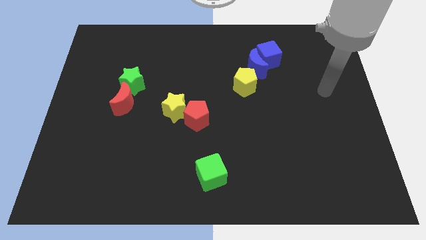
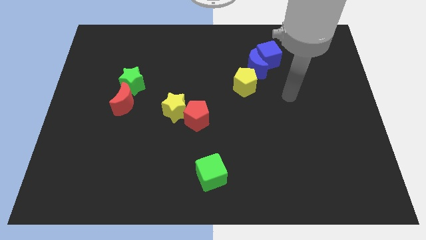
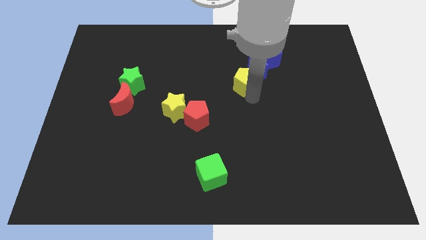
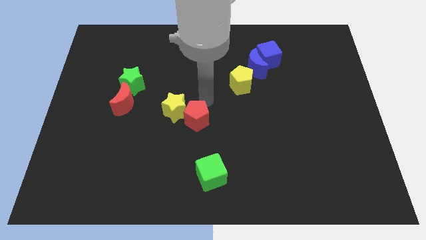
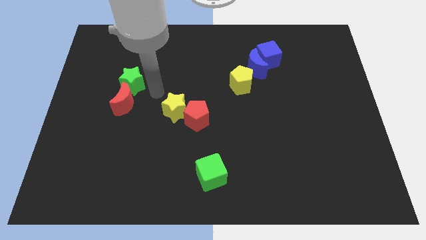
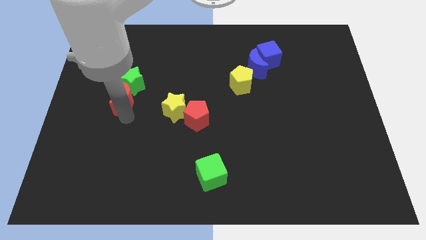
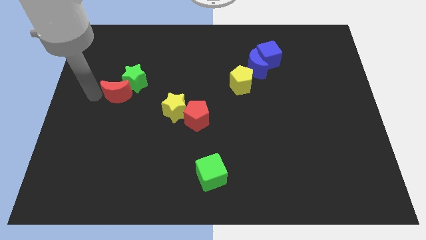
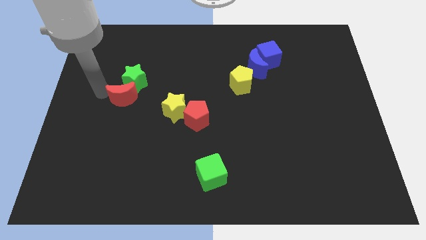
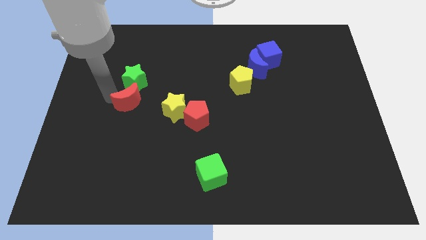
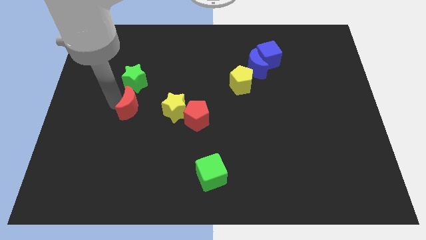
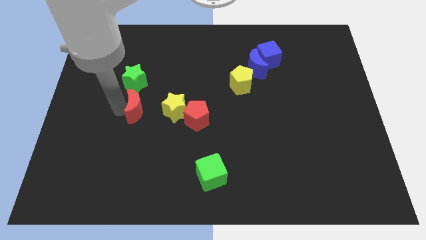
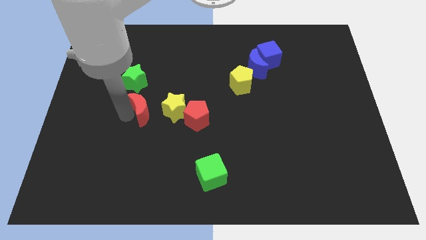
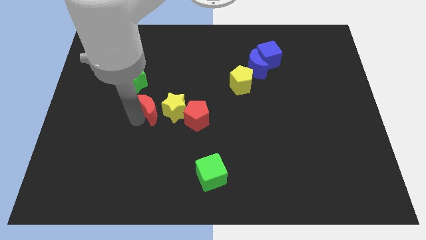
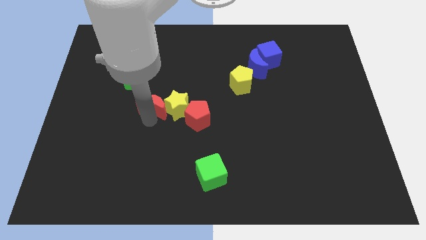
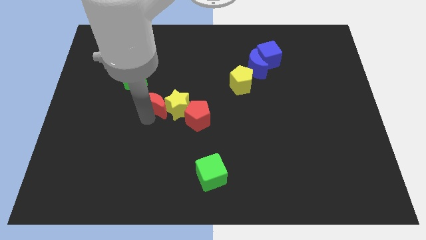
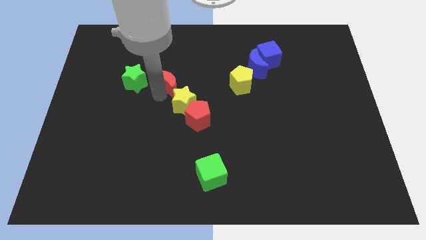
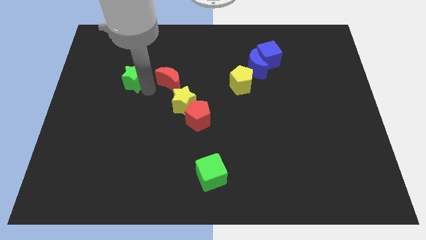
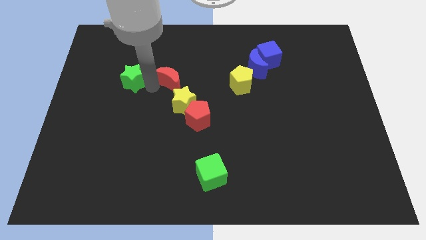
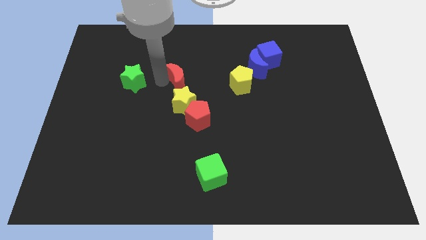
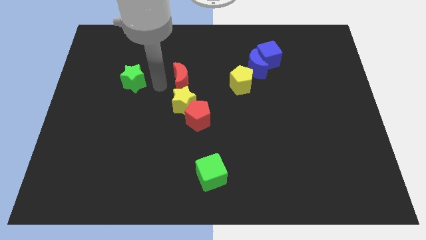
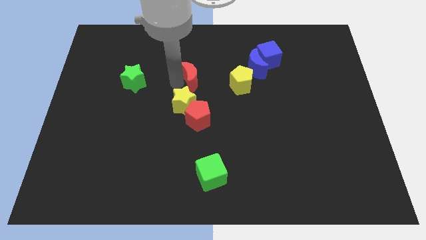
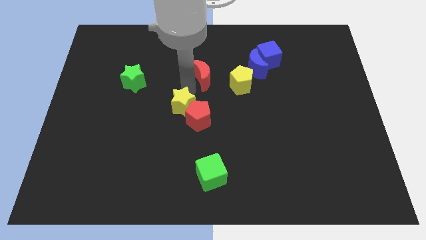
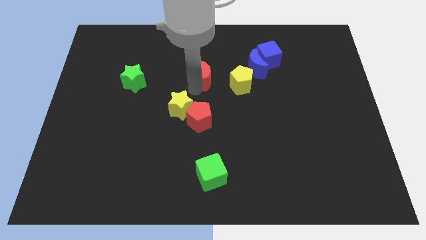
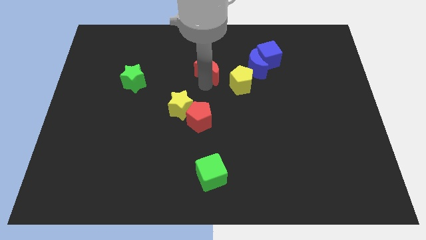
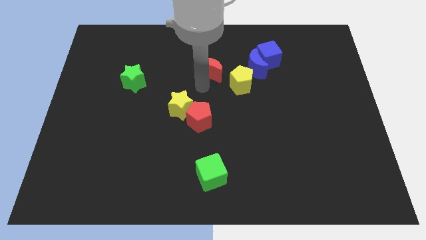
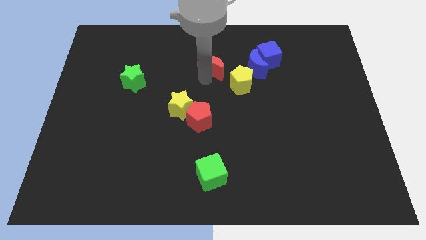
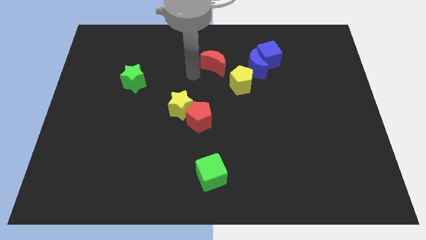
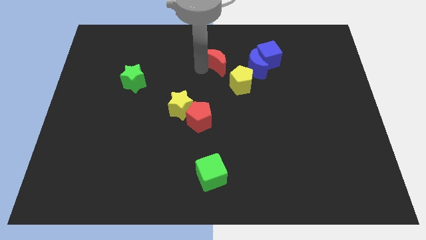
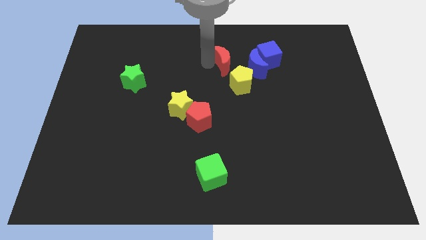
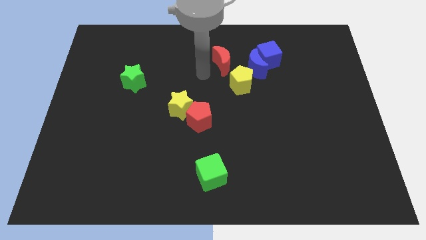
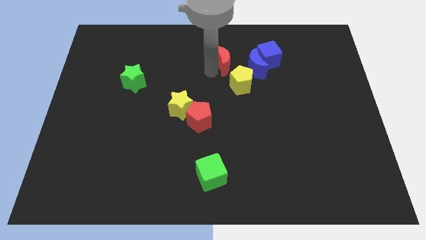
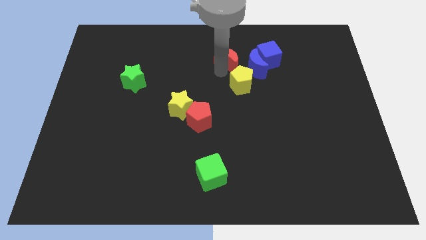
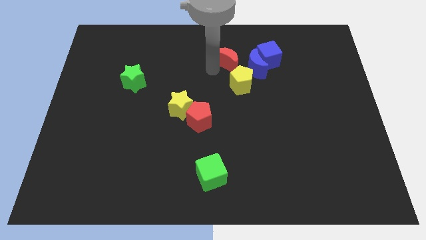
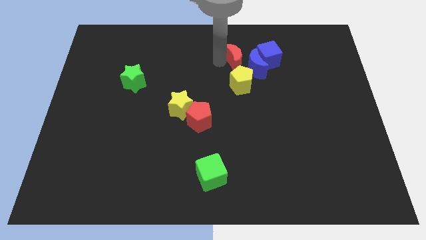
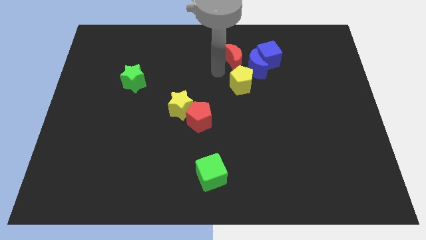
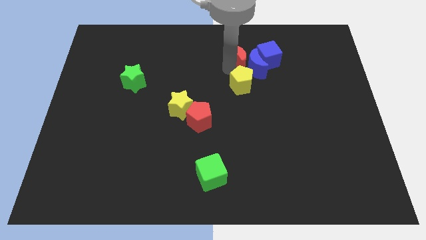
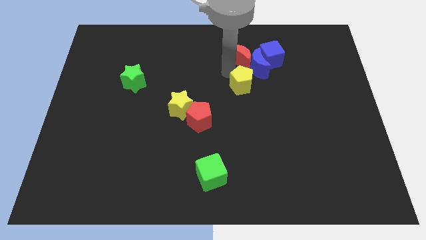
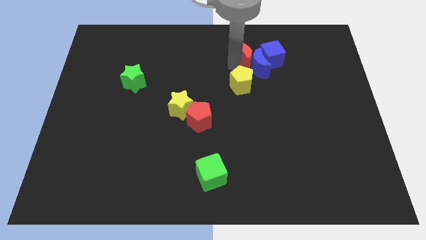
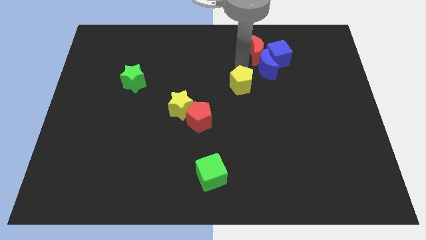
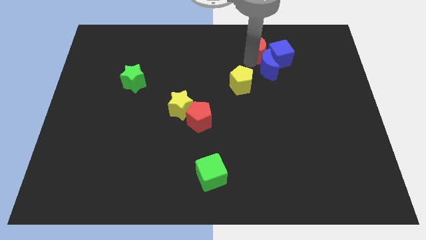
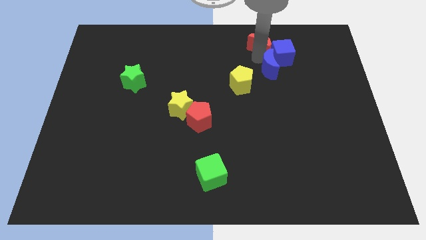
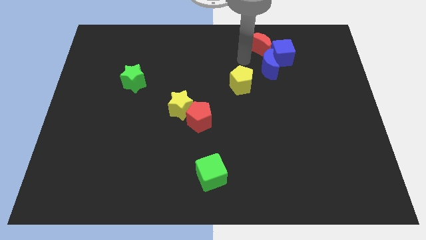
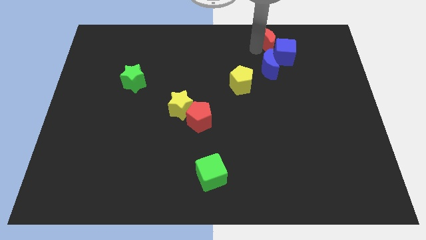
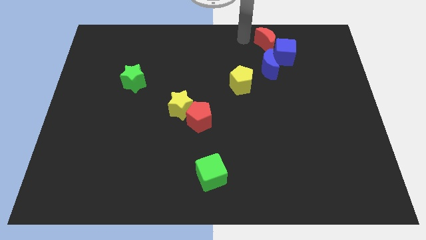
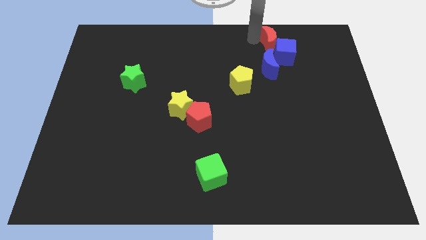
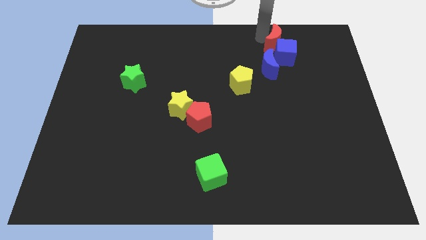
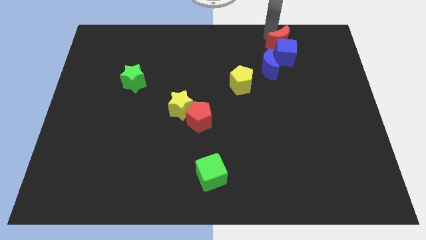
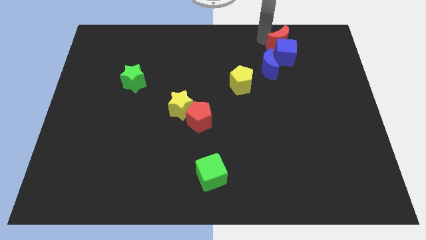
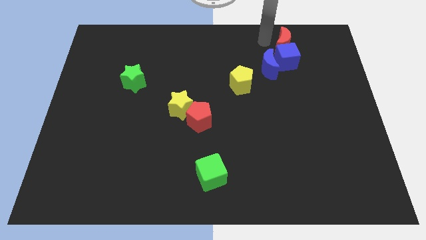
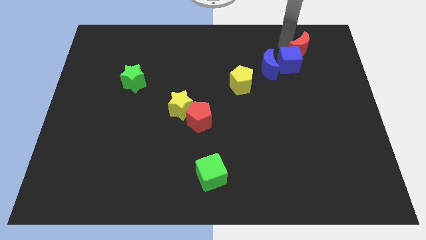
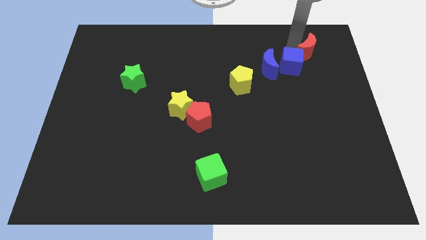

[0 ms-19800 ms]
move the red moon right of the blue cube

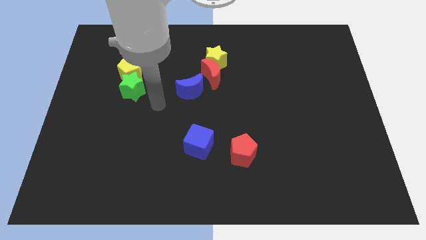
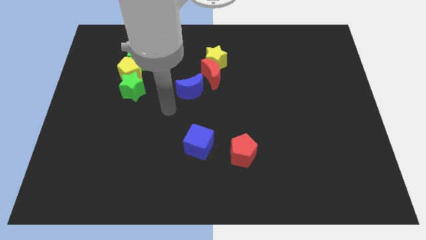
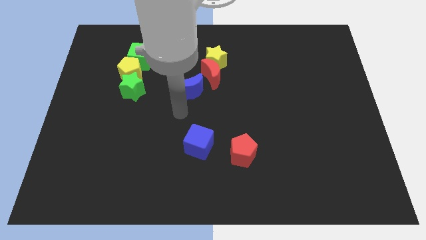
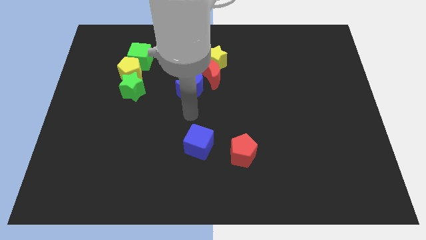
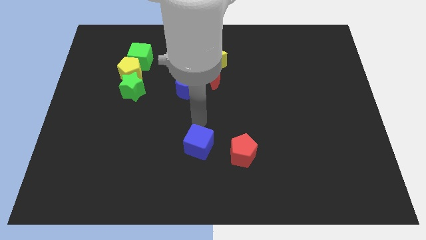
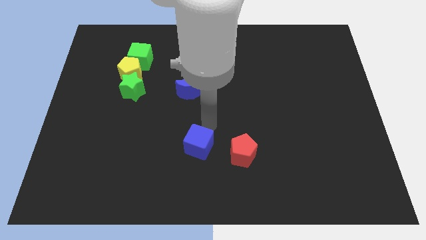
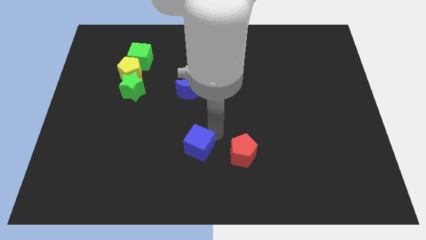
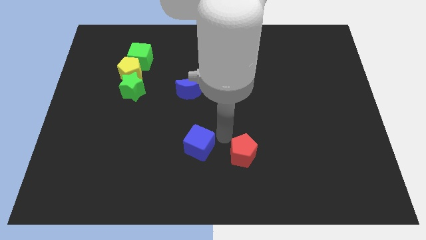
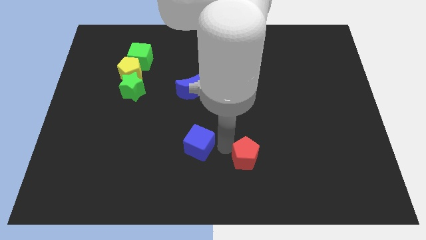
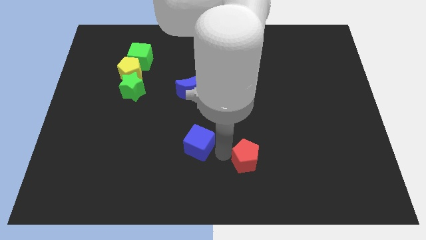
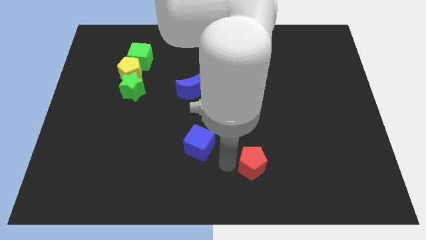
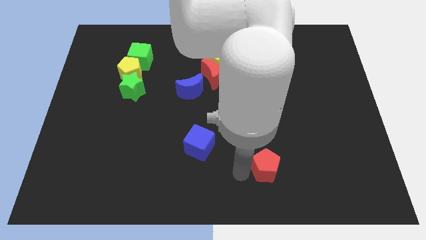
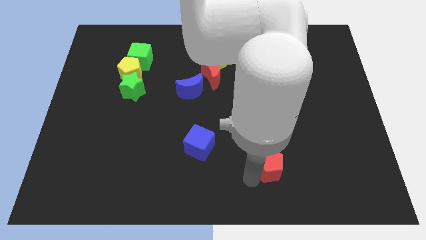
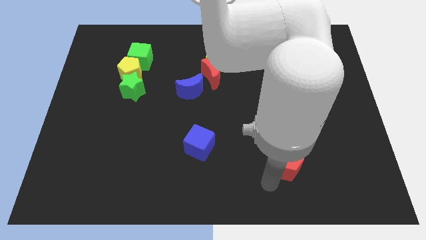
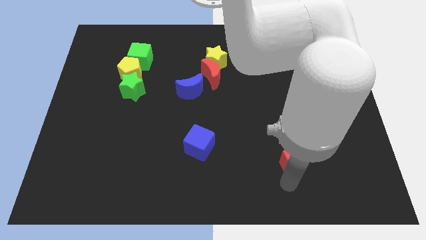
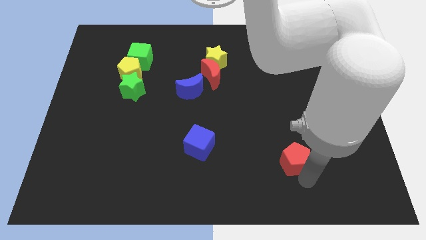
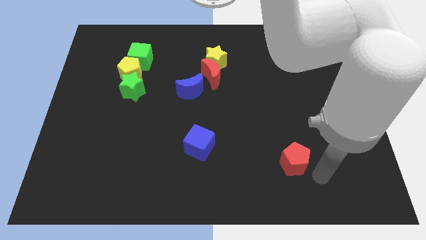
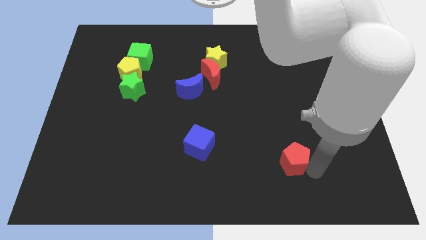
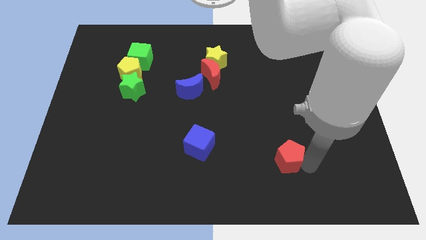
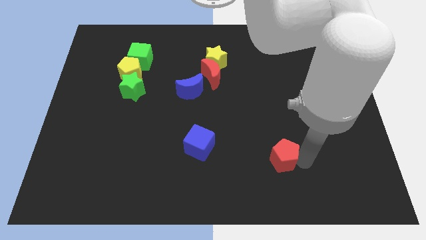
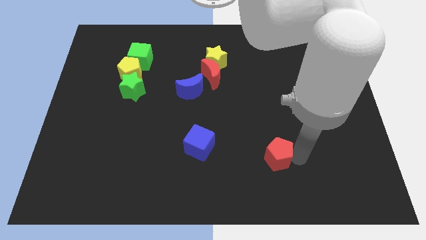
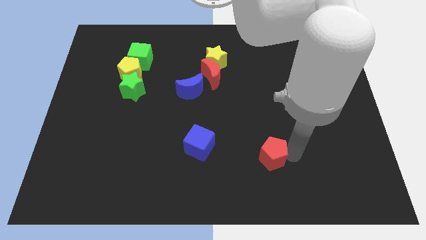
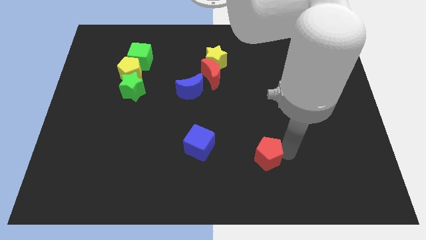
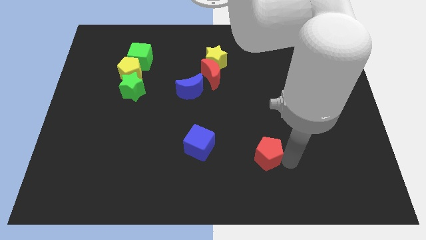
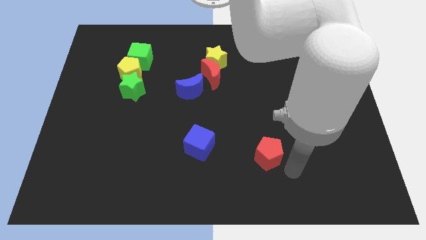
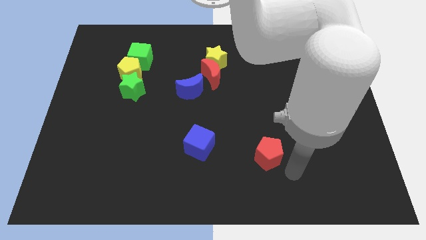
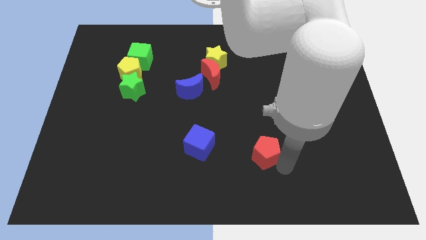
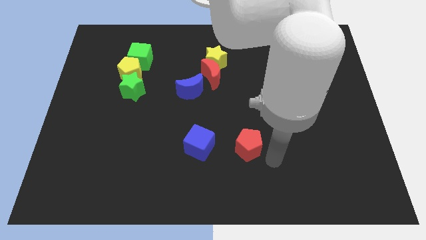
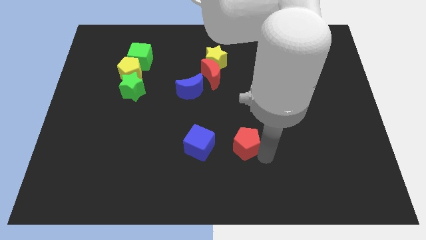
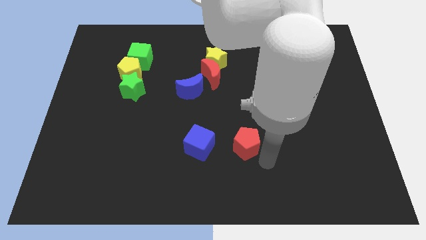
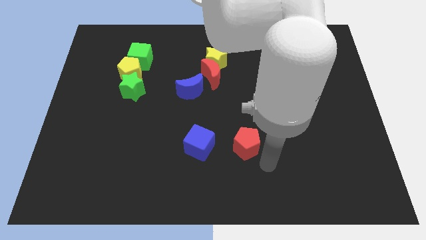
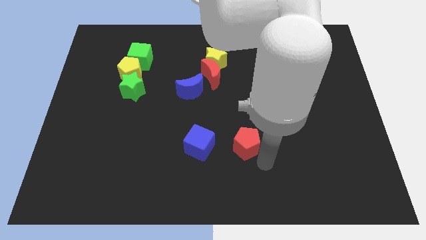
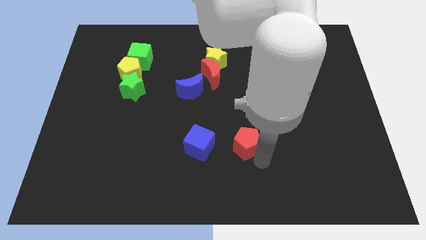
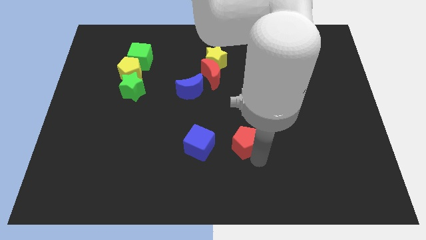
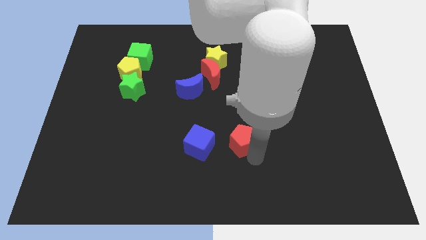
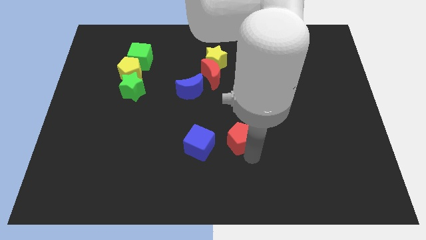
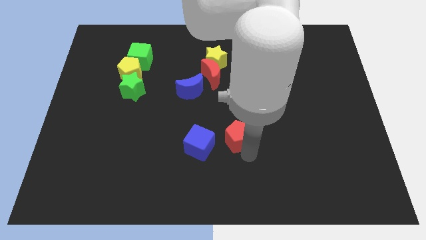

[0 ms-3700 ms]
move the red pentagon diagonally up and to the right of the blue cube
